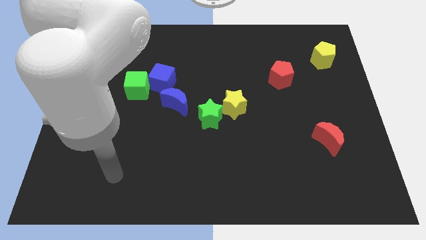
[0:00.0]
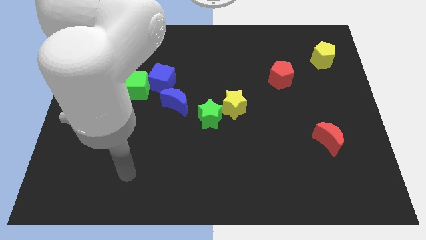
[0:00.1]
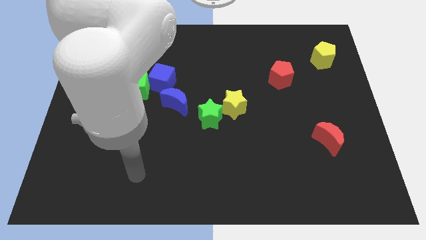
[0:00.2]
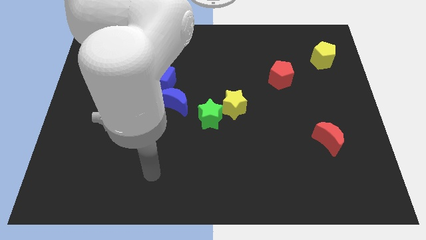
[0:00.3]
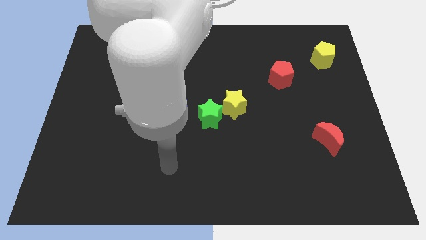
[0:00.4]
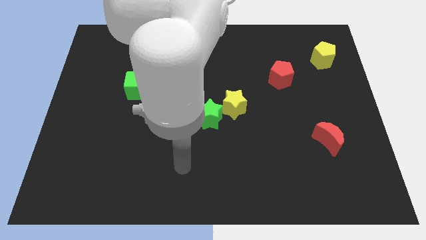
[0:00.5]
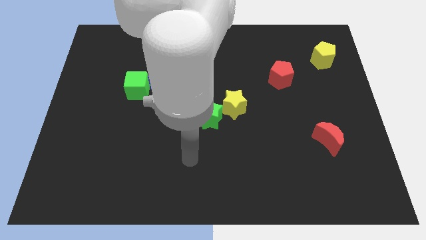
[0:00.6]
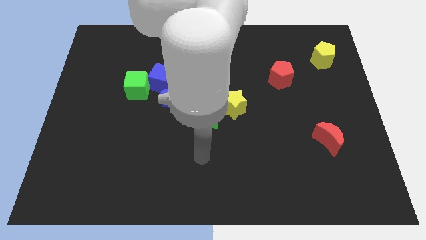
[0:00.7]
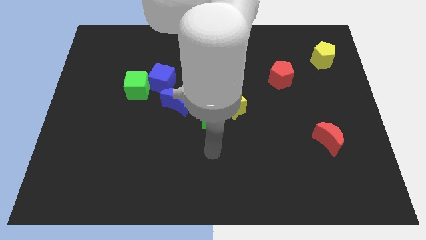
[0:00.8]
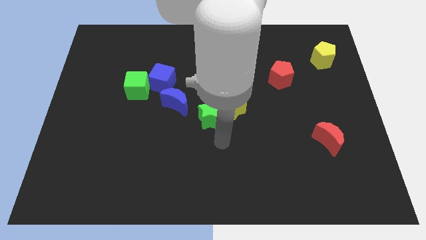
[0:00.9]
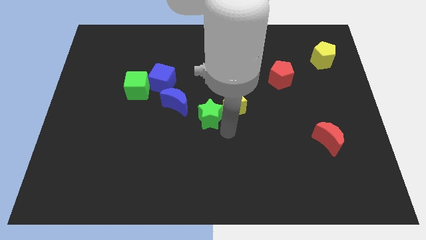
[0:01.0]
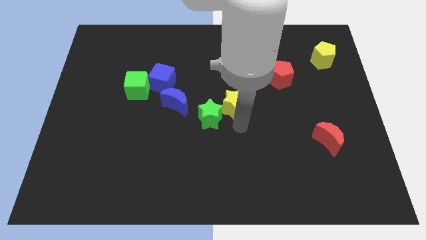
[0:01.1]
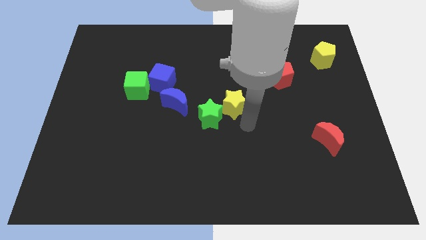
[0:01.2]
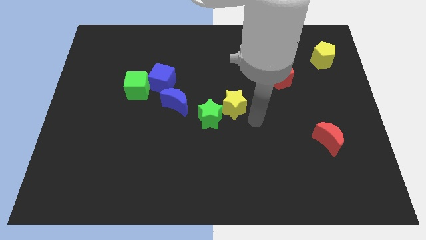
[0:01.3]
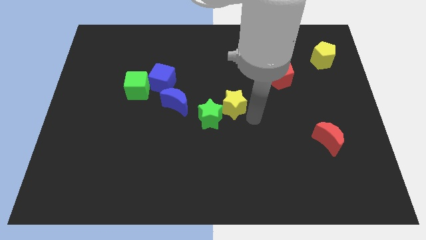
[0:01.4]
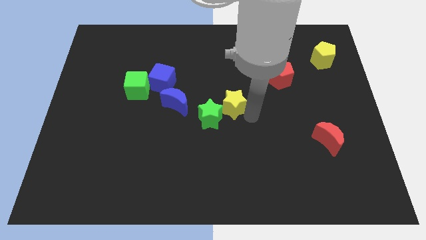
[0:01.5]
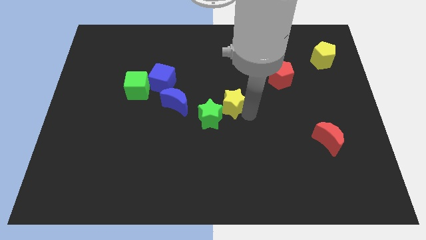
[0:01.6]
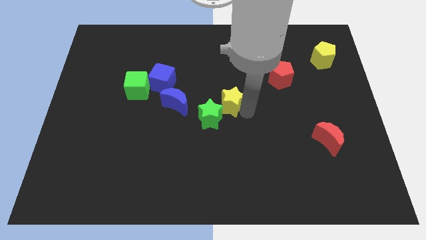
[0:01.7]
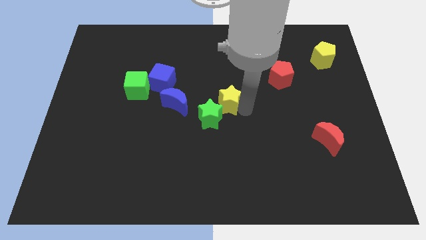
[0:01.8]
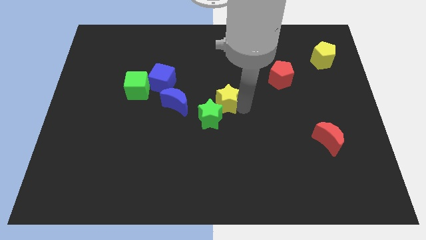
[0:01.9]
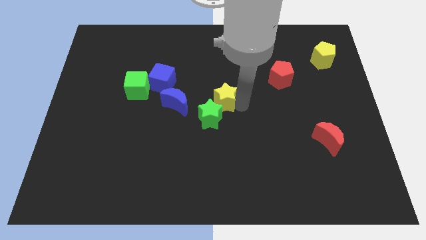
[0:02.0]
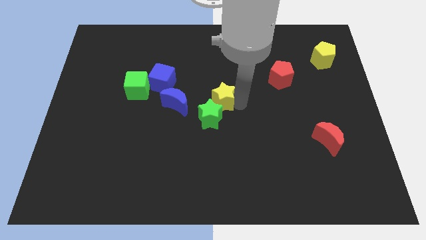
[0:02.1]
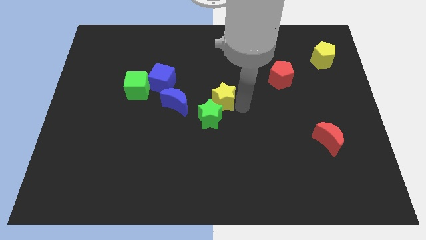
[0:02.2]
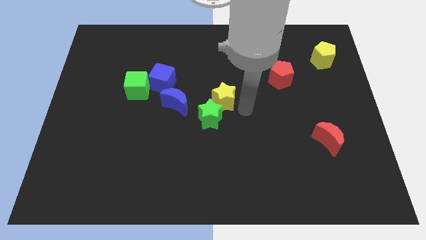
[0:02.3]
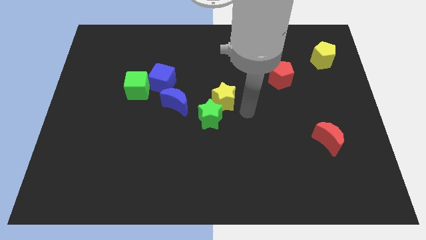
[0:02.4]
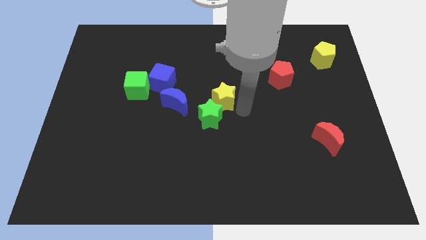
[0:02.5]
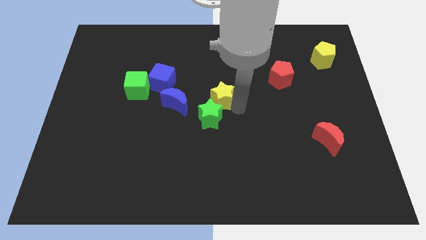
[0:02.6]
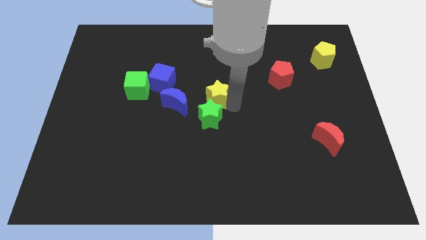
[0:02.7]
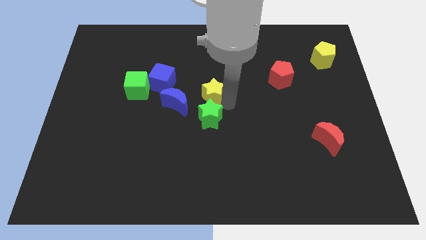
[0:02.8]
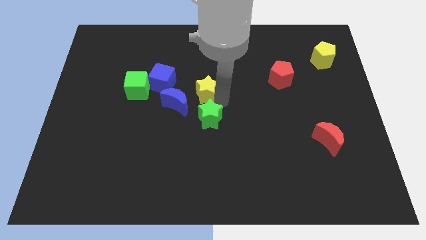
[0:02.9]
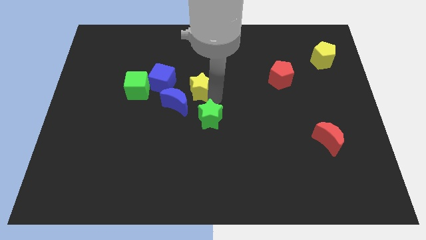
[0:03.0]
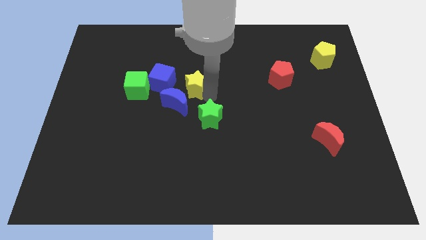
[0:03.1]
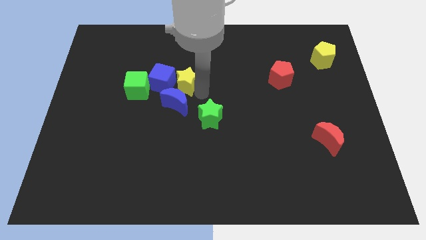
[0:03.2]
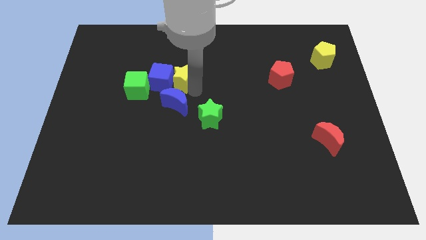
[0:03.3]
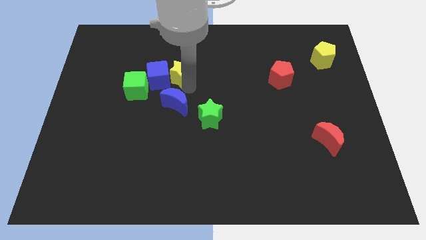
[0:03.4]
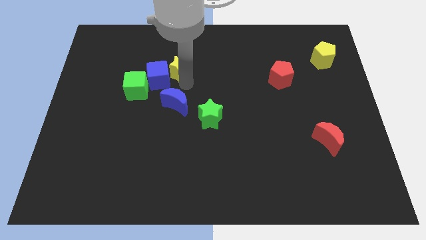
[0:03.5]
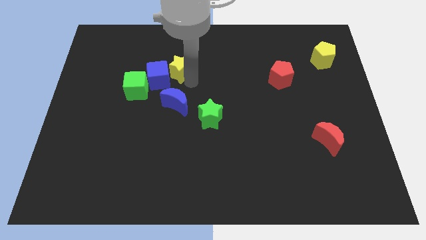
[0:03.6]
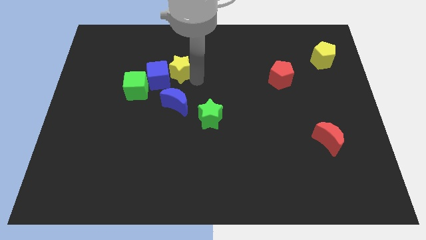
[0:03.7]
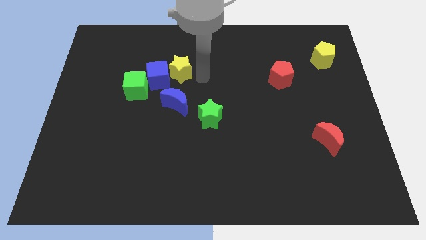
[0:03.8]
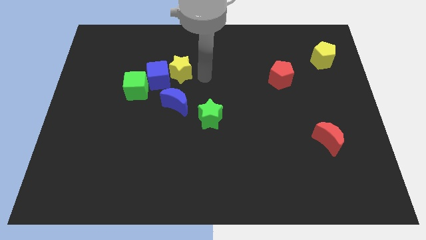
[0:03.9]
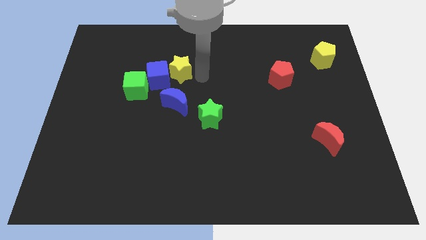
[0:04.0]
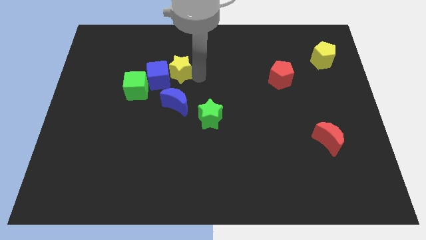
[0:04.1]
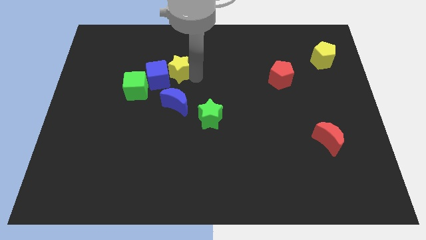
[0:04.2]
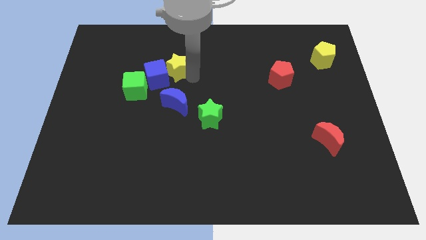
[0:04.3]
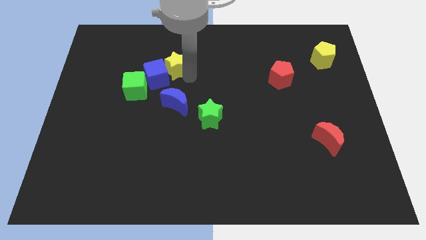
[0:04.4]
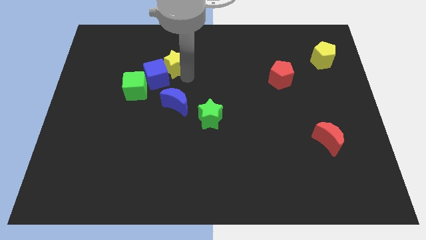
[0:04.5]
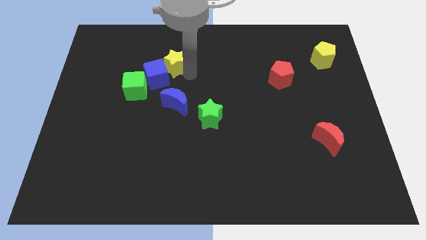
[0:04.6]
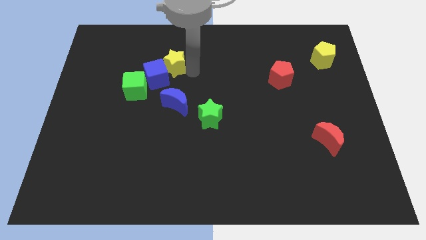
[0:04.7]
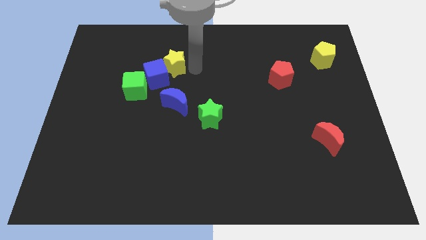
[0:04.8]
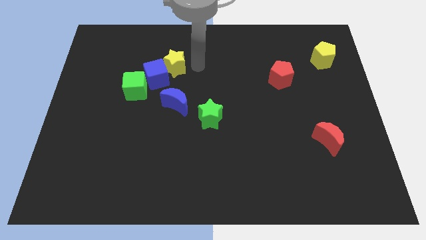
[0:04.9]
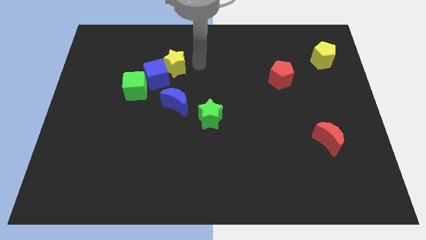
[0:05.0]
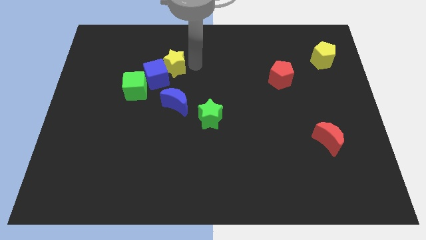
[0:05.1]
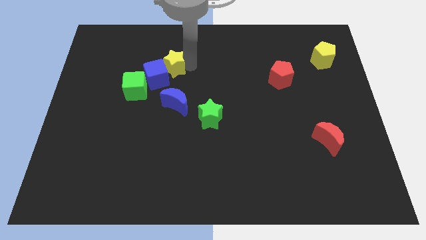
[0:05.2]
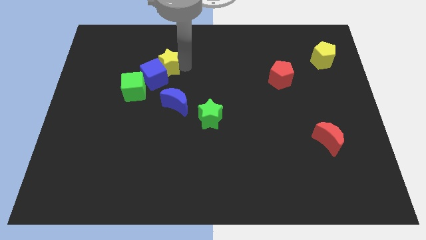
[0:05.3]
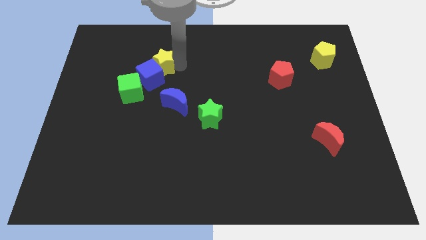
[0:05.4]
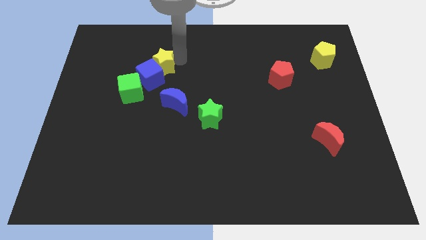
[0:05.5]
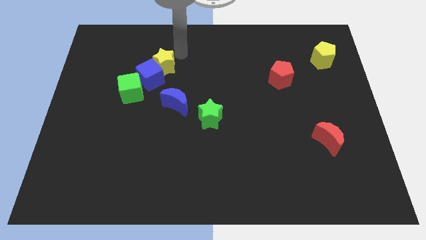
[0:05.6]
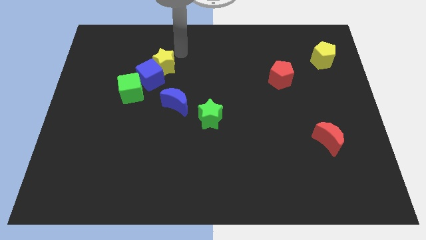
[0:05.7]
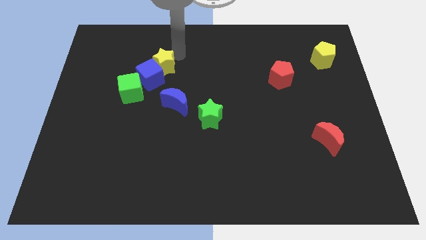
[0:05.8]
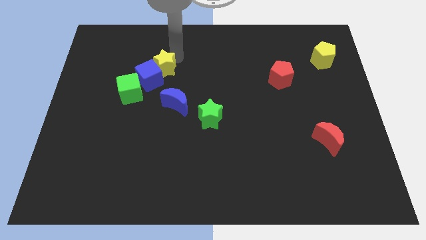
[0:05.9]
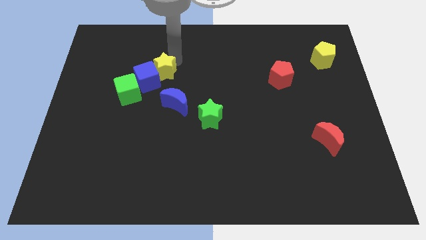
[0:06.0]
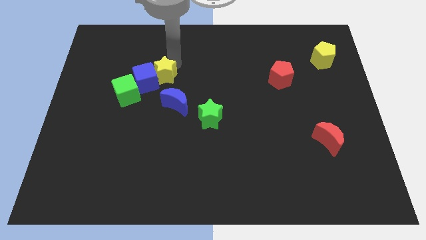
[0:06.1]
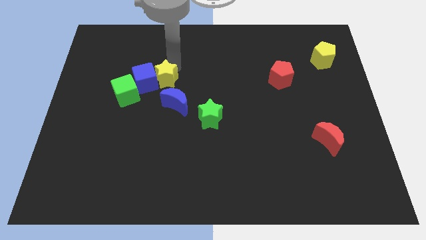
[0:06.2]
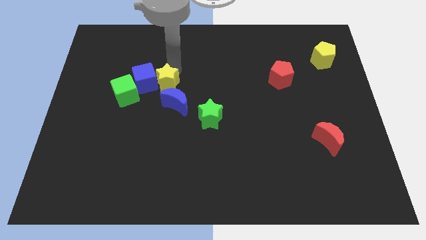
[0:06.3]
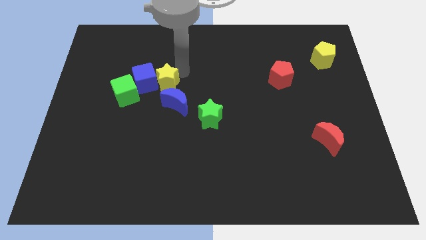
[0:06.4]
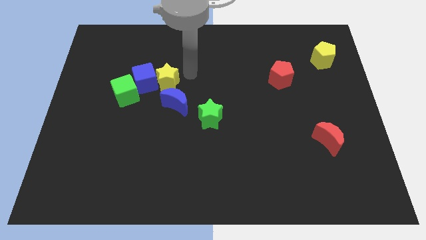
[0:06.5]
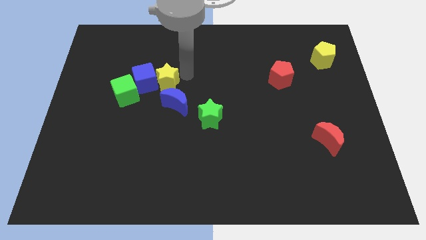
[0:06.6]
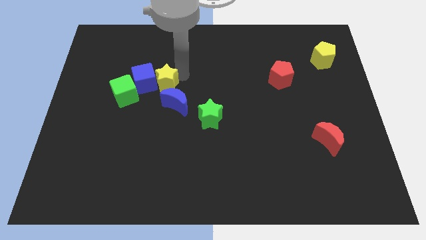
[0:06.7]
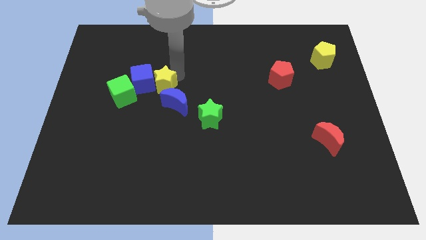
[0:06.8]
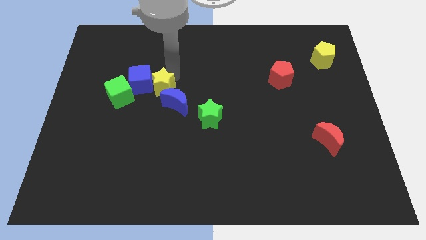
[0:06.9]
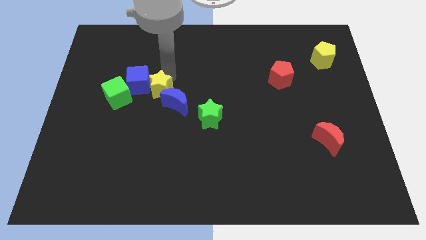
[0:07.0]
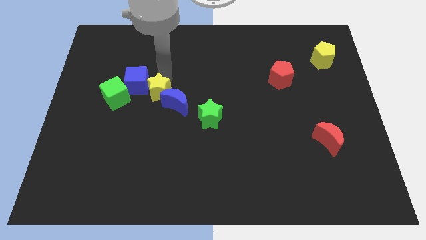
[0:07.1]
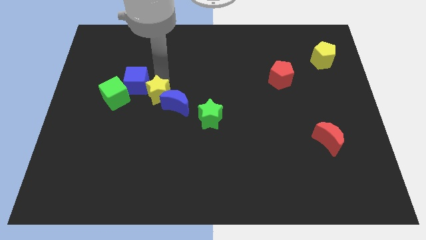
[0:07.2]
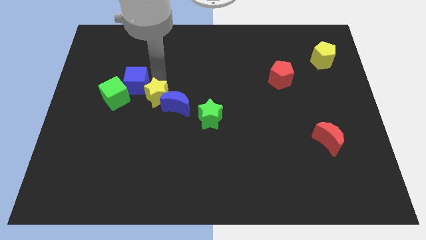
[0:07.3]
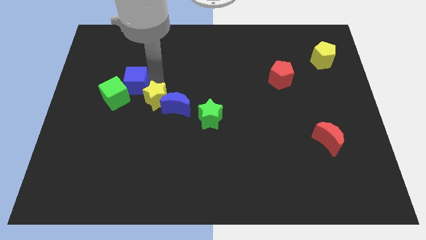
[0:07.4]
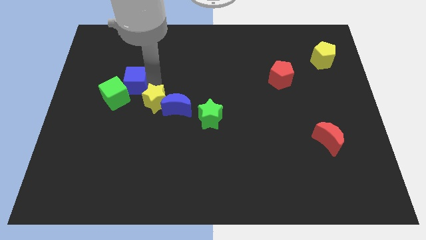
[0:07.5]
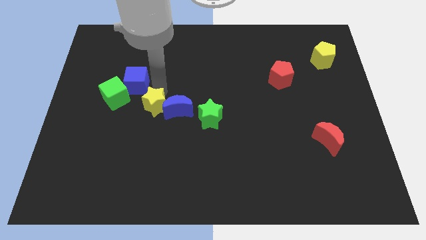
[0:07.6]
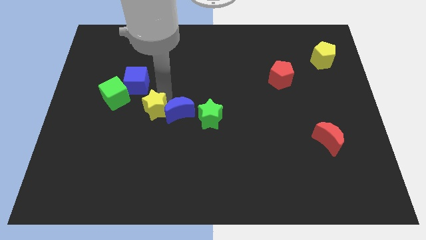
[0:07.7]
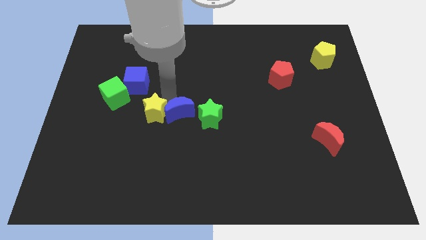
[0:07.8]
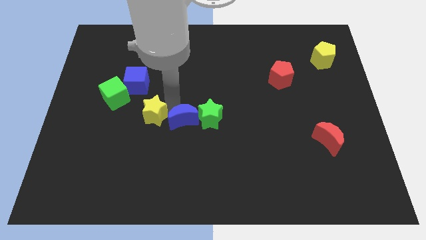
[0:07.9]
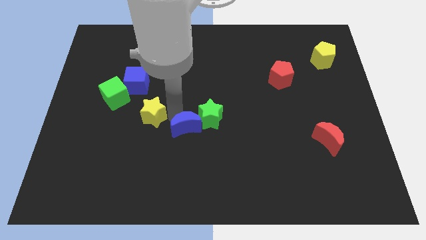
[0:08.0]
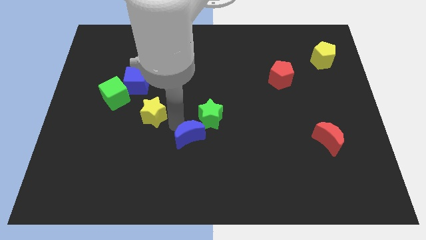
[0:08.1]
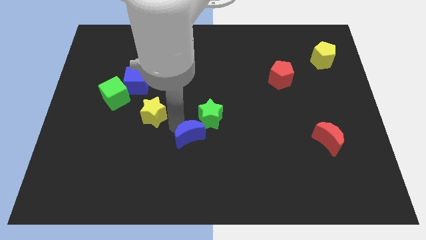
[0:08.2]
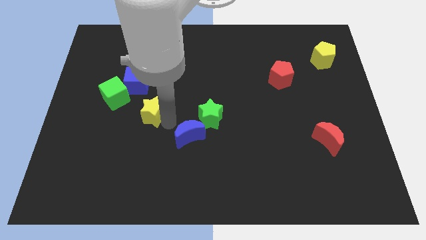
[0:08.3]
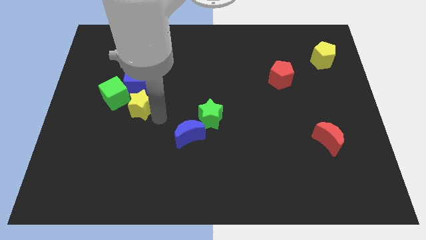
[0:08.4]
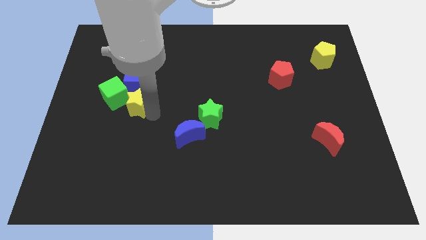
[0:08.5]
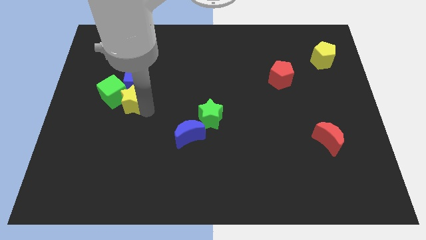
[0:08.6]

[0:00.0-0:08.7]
push the yellow star towards the green cube
